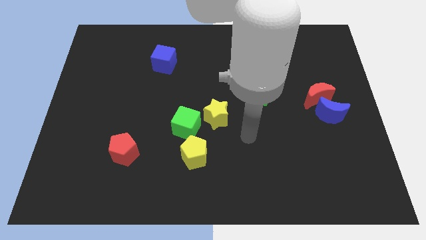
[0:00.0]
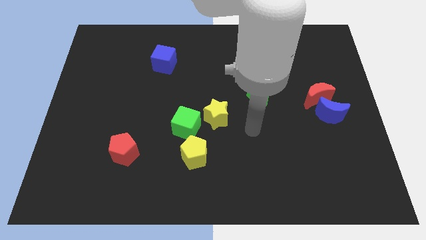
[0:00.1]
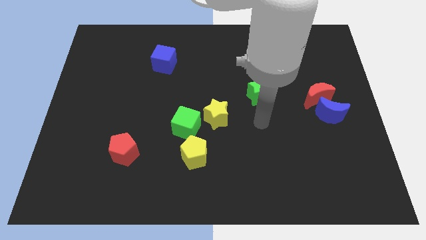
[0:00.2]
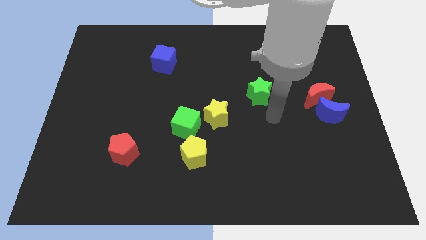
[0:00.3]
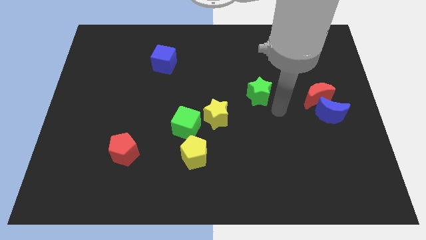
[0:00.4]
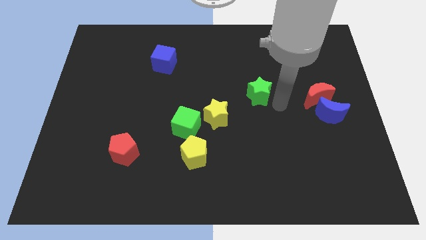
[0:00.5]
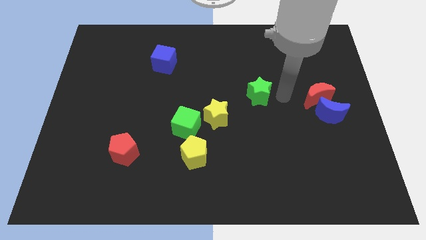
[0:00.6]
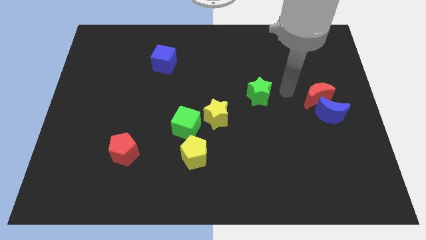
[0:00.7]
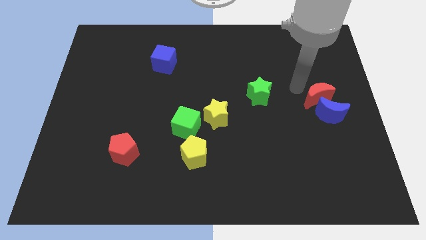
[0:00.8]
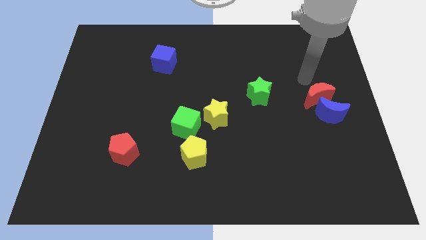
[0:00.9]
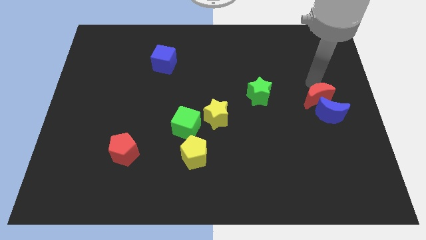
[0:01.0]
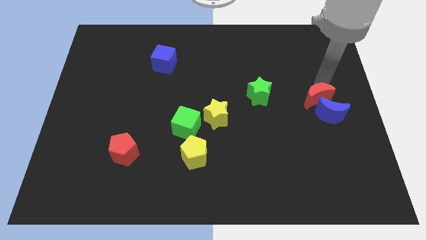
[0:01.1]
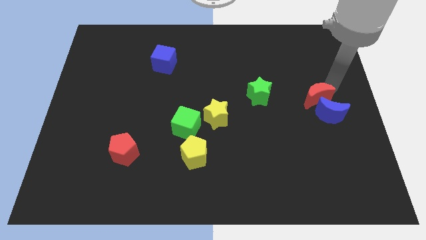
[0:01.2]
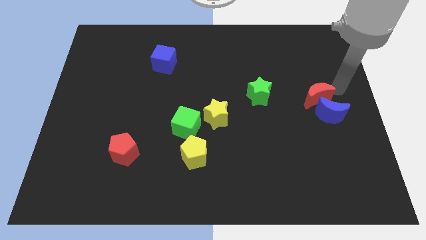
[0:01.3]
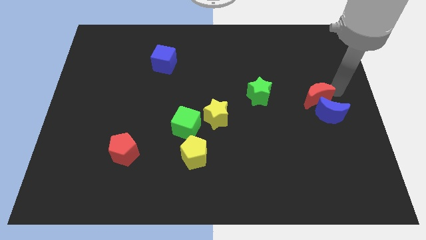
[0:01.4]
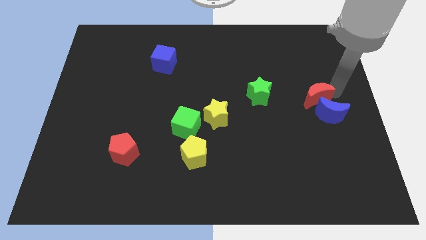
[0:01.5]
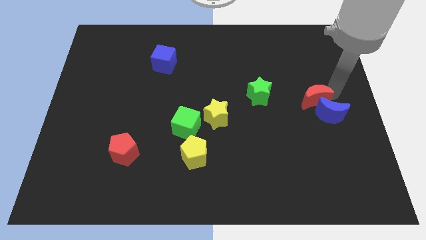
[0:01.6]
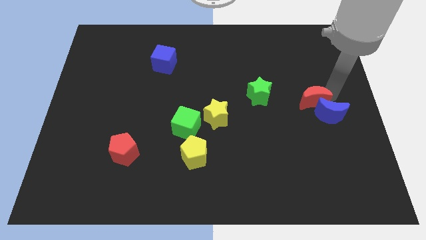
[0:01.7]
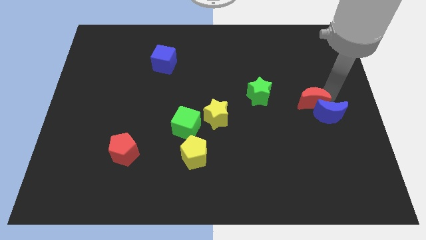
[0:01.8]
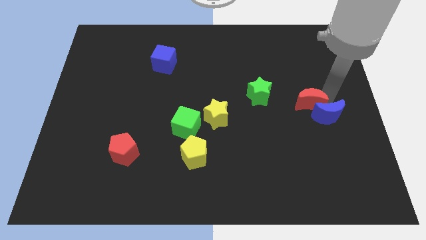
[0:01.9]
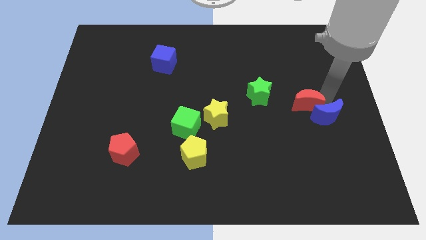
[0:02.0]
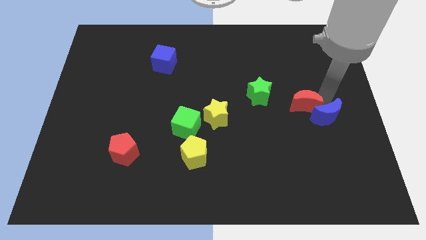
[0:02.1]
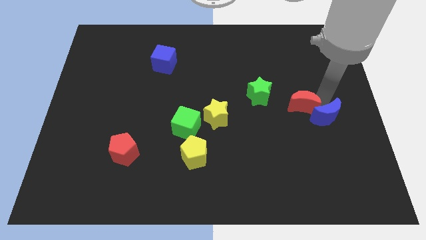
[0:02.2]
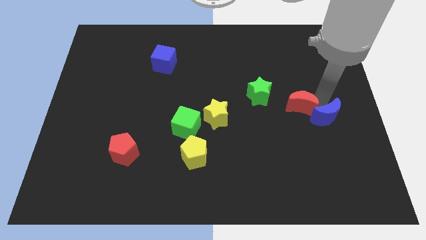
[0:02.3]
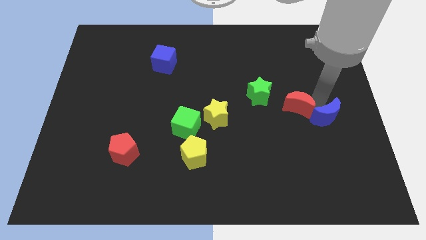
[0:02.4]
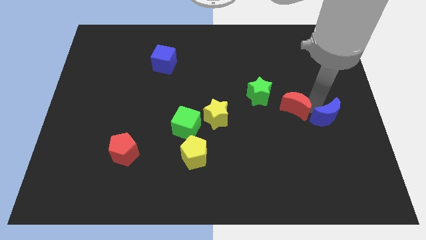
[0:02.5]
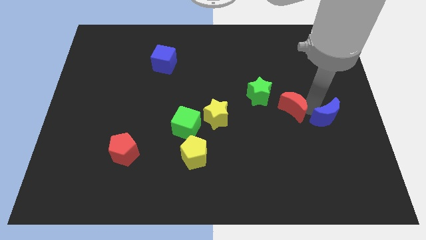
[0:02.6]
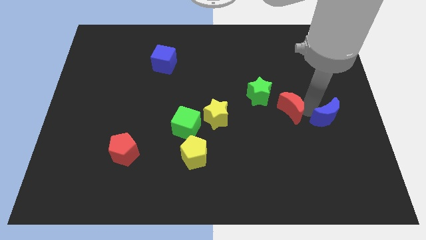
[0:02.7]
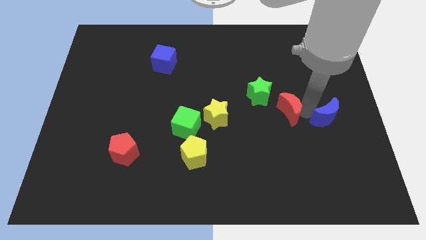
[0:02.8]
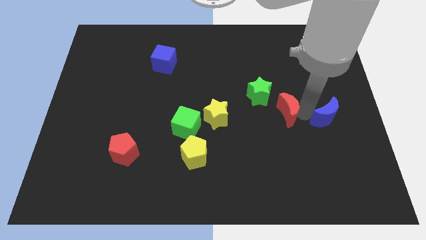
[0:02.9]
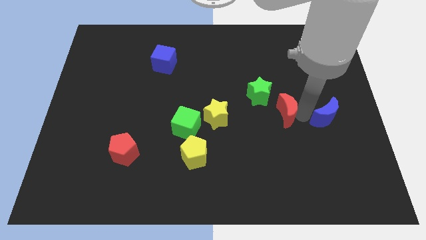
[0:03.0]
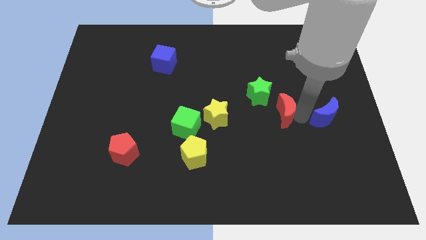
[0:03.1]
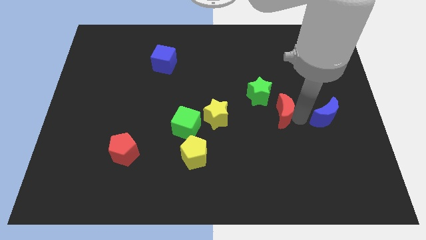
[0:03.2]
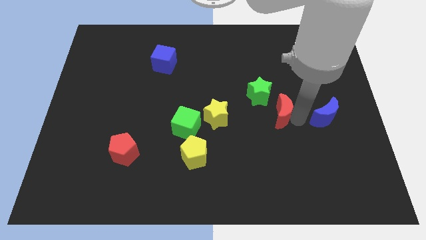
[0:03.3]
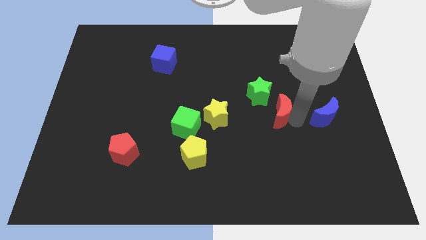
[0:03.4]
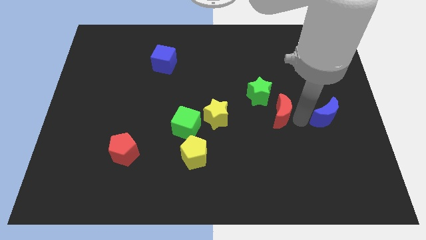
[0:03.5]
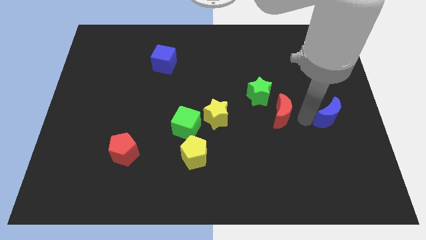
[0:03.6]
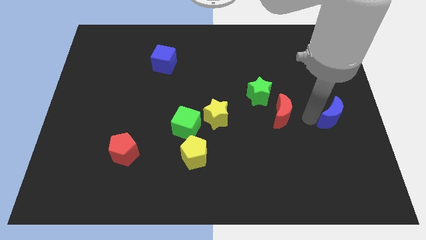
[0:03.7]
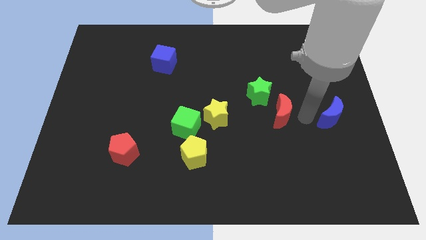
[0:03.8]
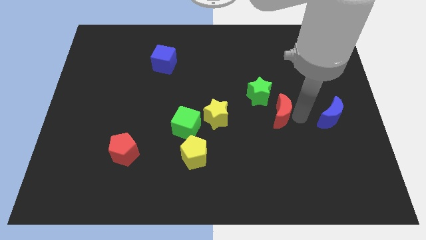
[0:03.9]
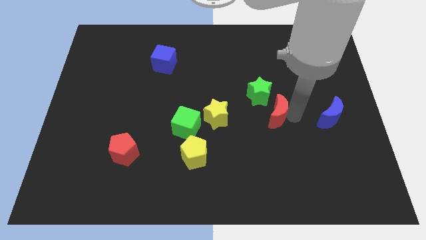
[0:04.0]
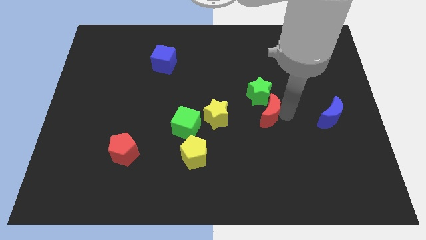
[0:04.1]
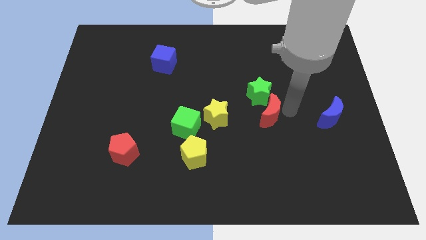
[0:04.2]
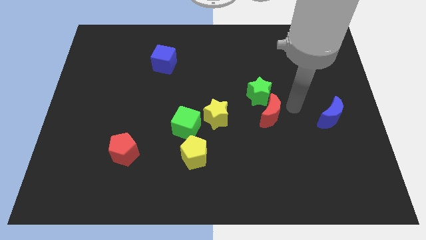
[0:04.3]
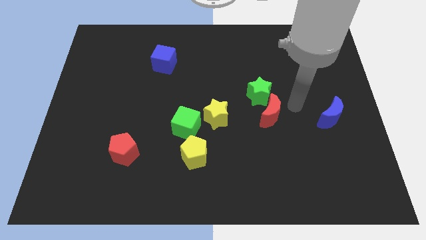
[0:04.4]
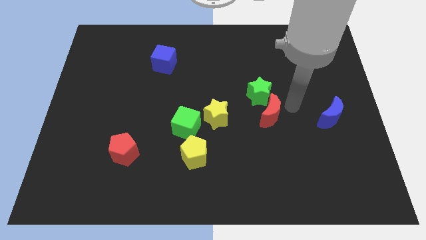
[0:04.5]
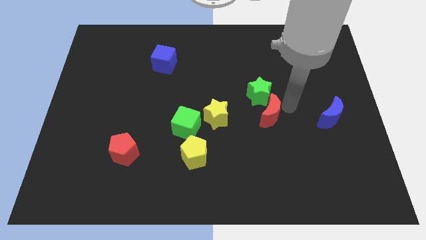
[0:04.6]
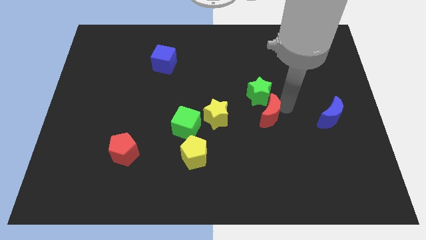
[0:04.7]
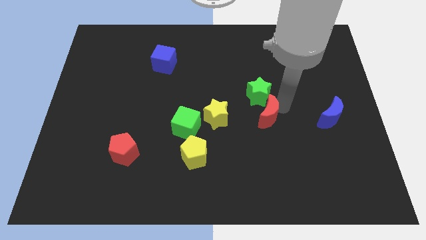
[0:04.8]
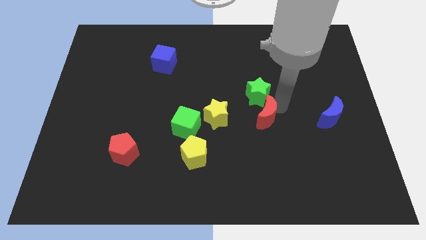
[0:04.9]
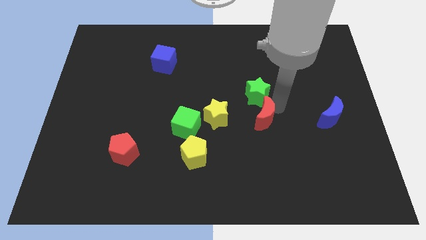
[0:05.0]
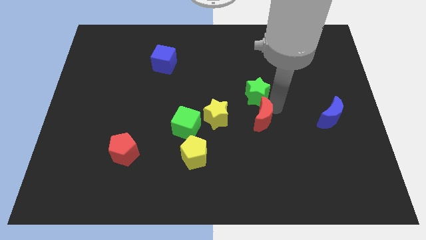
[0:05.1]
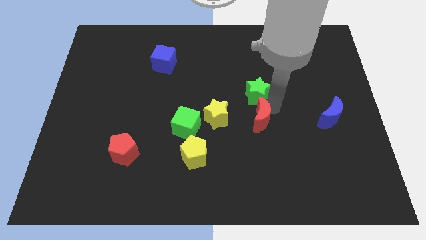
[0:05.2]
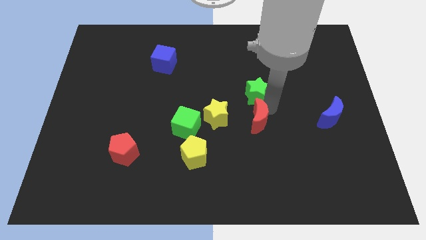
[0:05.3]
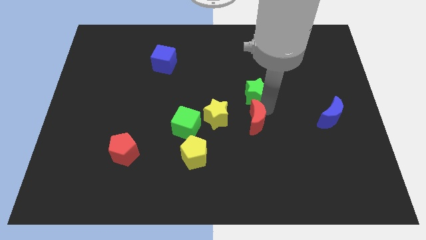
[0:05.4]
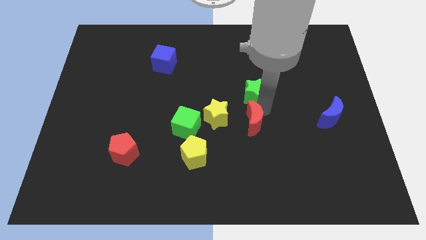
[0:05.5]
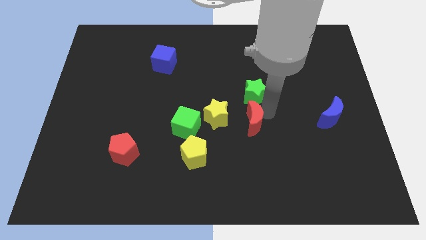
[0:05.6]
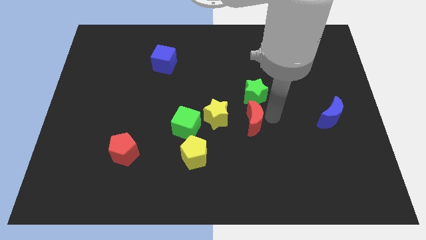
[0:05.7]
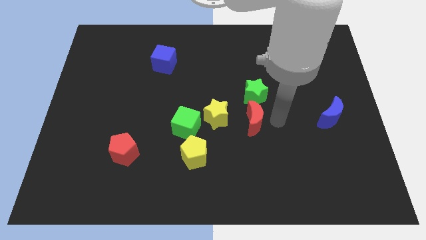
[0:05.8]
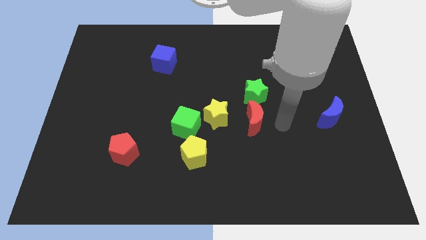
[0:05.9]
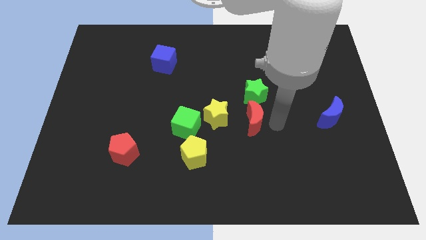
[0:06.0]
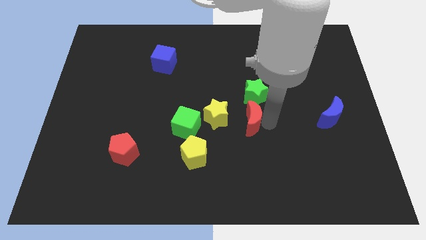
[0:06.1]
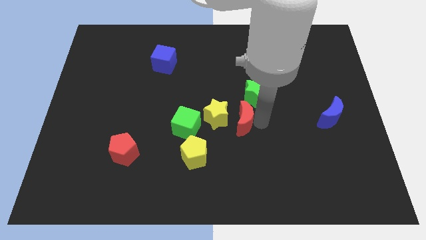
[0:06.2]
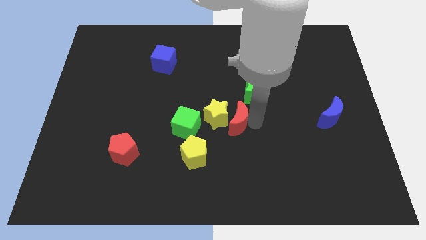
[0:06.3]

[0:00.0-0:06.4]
slide the red moon close to the yellow star
